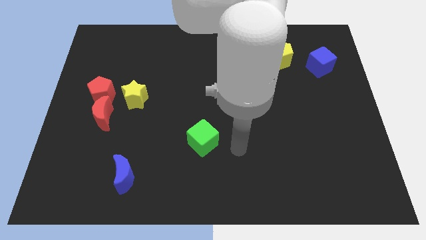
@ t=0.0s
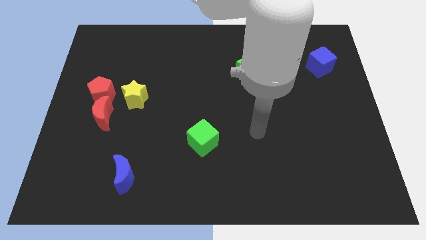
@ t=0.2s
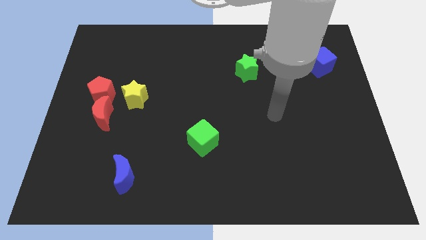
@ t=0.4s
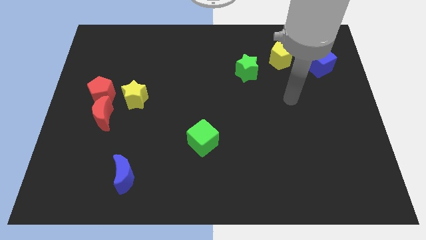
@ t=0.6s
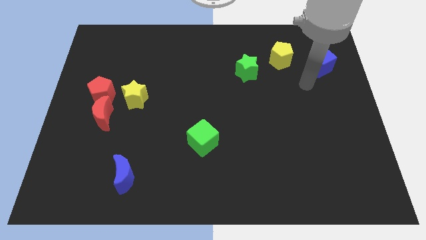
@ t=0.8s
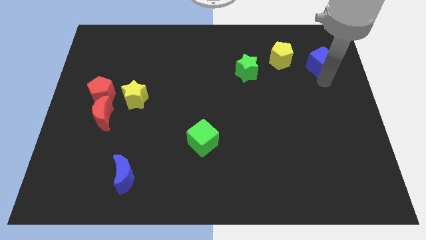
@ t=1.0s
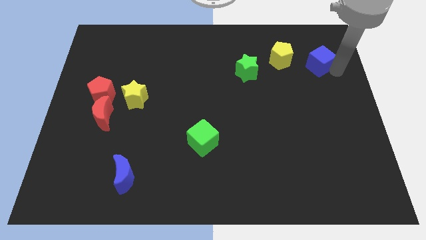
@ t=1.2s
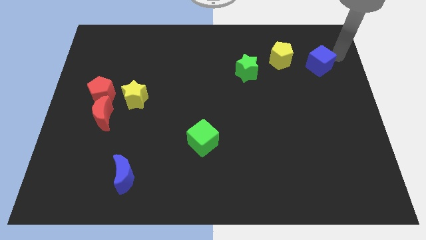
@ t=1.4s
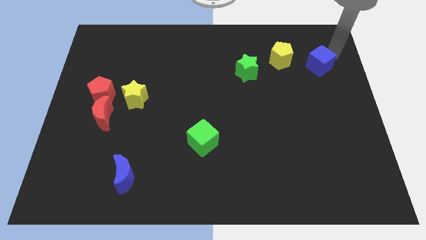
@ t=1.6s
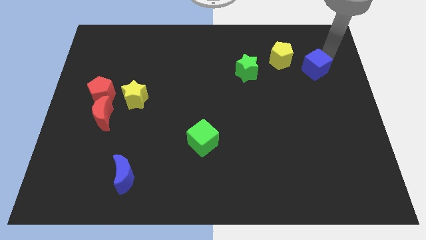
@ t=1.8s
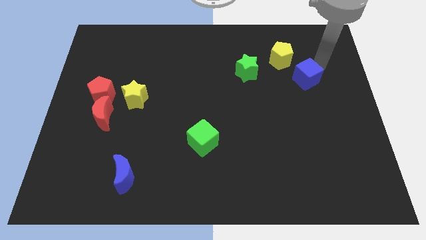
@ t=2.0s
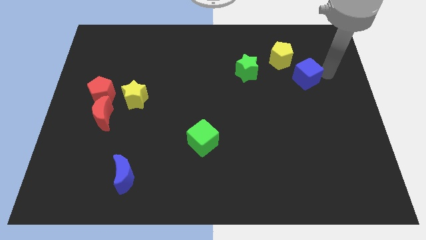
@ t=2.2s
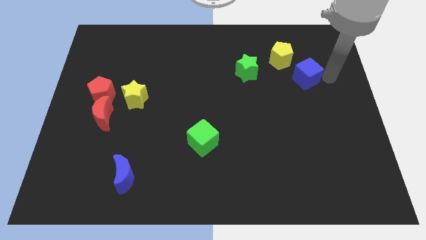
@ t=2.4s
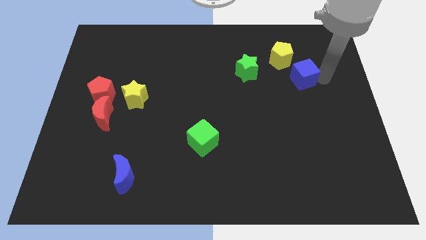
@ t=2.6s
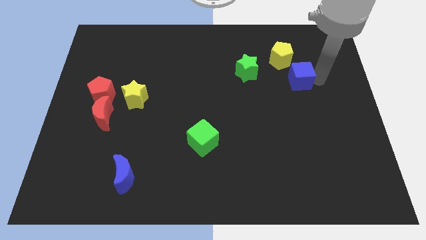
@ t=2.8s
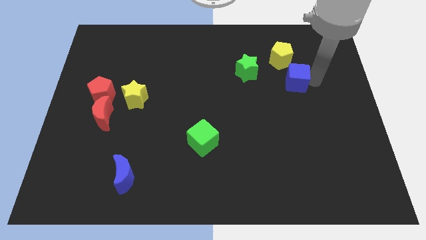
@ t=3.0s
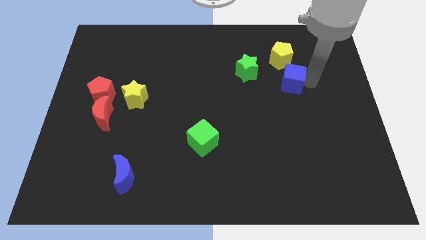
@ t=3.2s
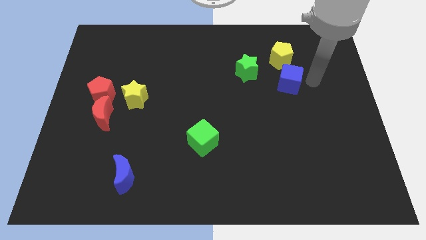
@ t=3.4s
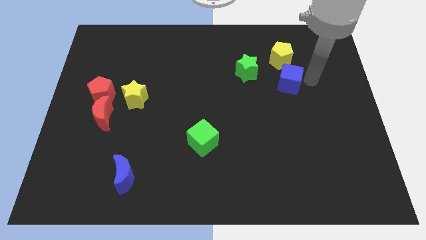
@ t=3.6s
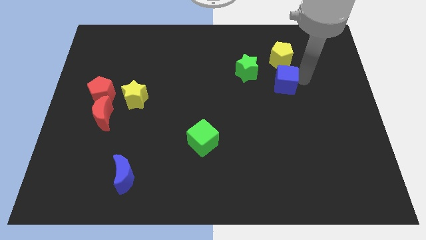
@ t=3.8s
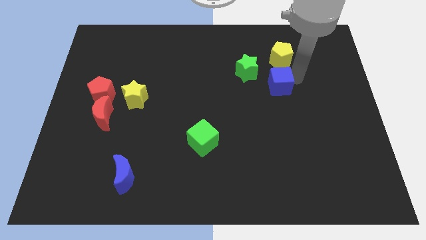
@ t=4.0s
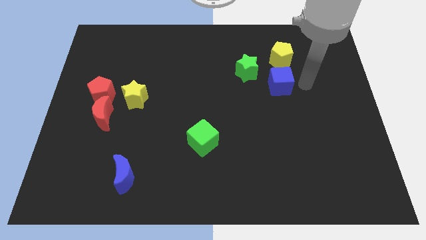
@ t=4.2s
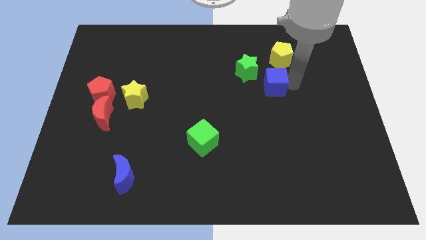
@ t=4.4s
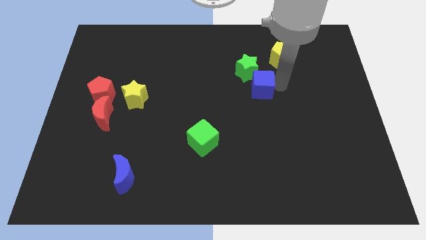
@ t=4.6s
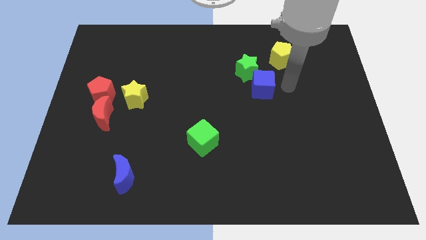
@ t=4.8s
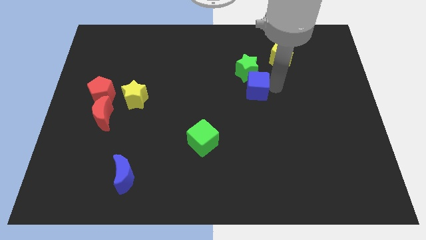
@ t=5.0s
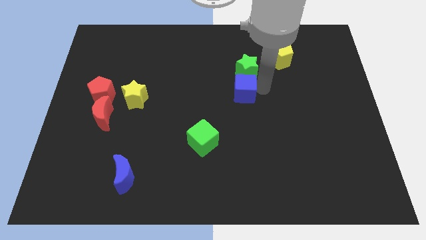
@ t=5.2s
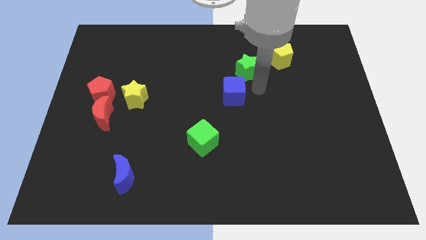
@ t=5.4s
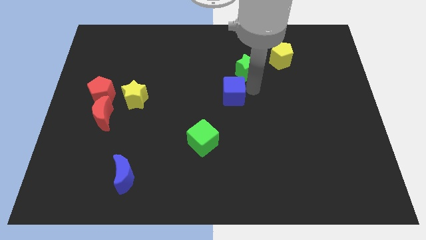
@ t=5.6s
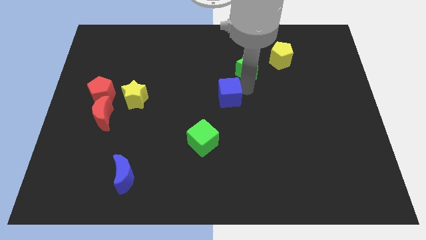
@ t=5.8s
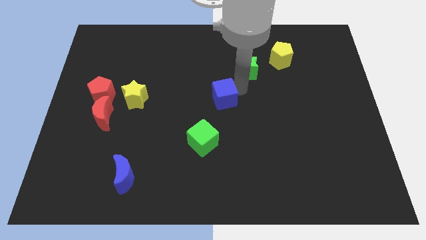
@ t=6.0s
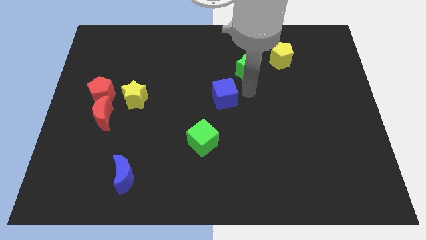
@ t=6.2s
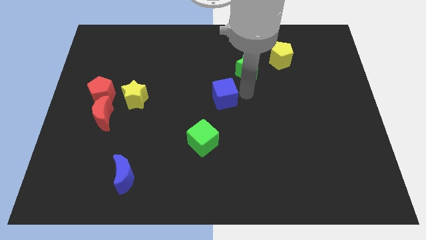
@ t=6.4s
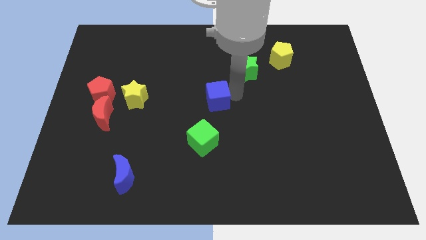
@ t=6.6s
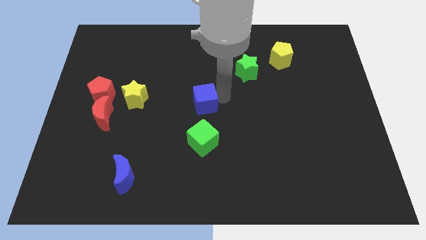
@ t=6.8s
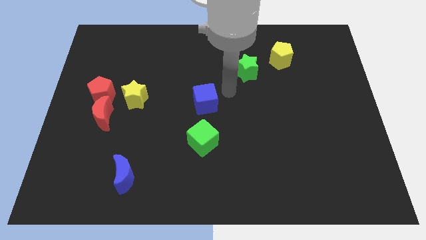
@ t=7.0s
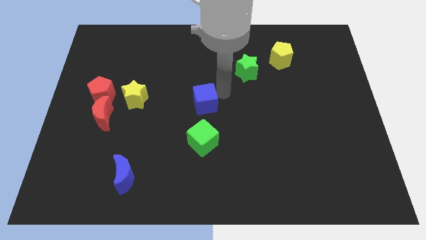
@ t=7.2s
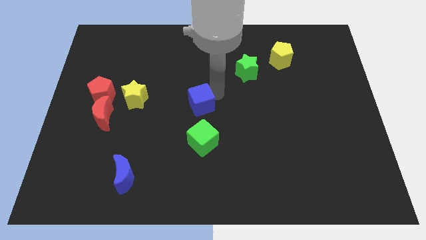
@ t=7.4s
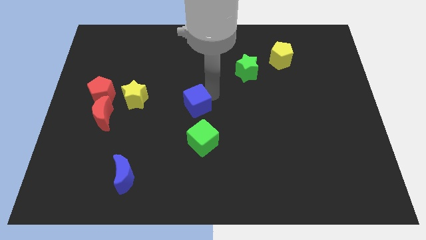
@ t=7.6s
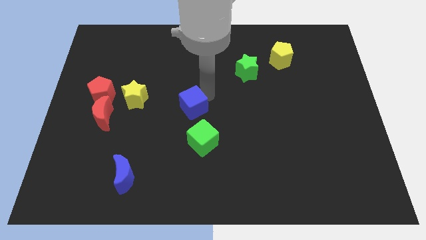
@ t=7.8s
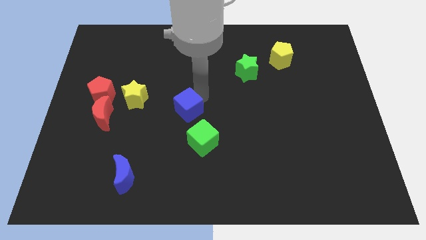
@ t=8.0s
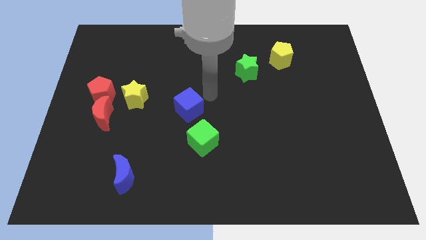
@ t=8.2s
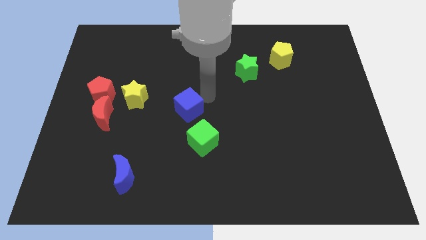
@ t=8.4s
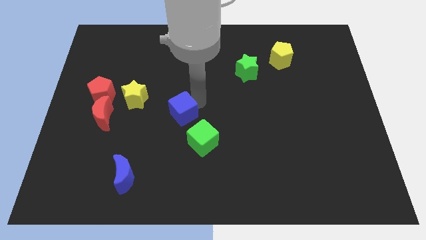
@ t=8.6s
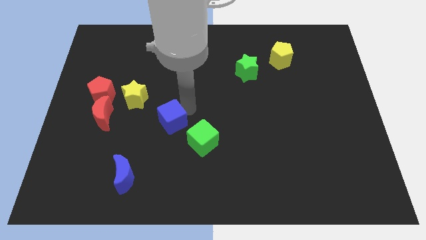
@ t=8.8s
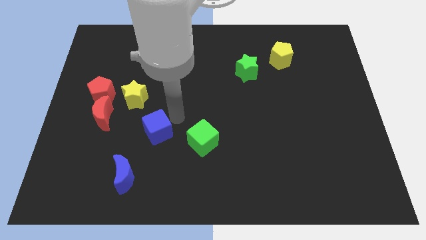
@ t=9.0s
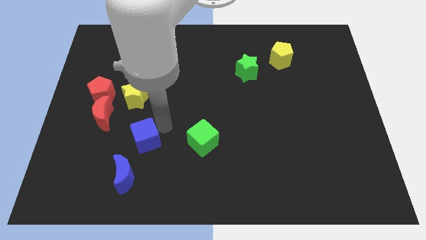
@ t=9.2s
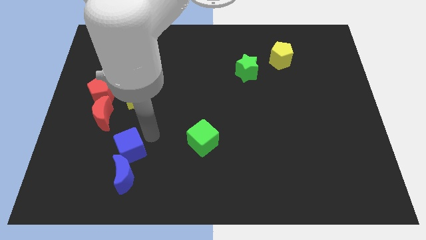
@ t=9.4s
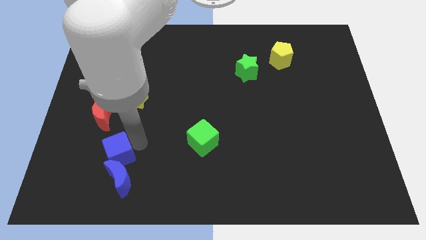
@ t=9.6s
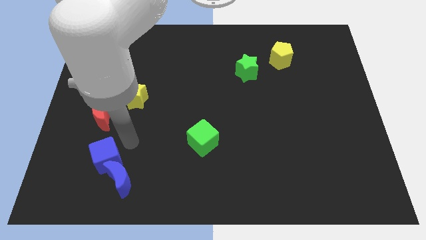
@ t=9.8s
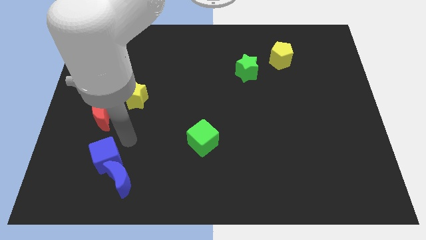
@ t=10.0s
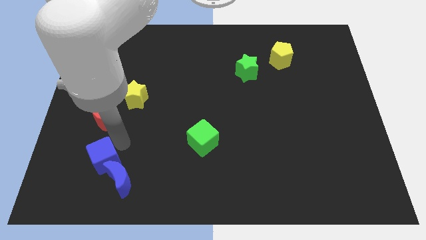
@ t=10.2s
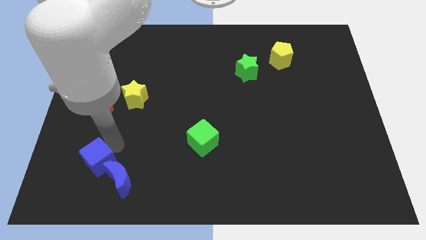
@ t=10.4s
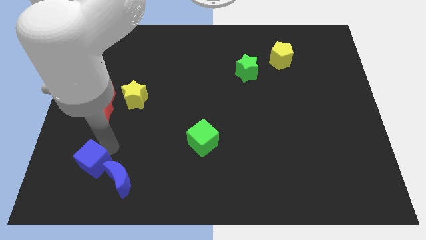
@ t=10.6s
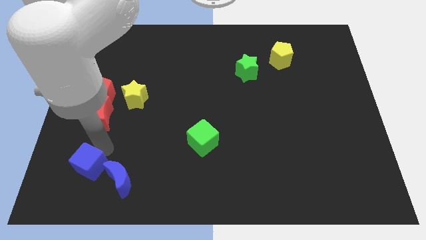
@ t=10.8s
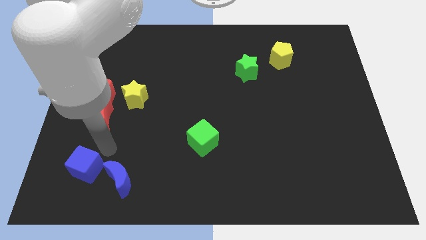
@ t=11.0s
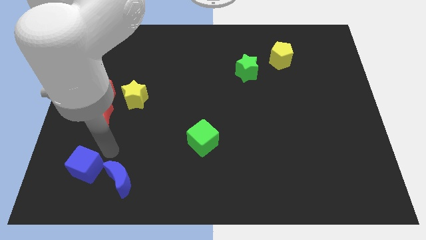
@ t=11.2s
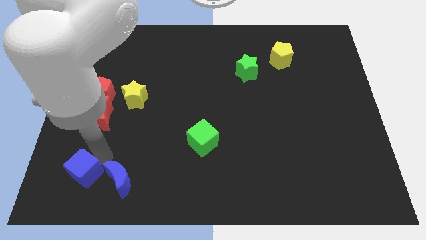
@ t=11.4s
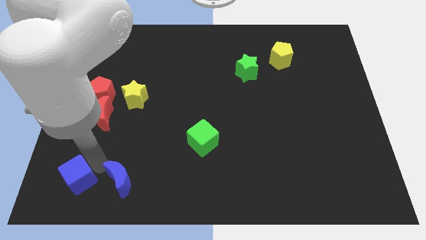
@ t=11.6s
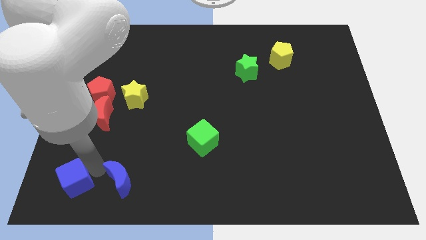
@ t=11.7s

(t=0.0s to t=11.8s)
slide the blue cube to the bottom left
